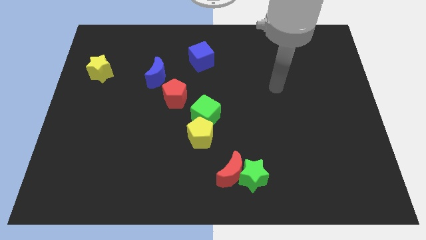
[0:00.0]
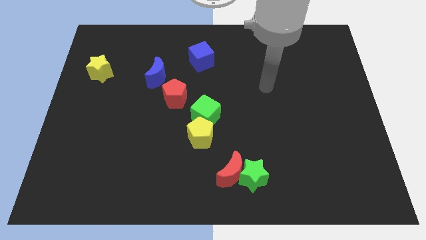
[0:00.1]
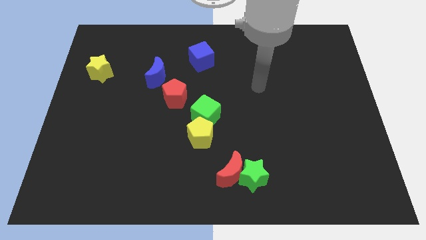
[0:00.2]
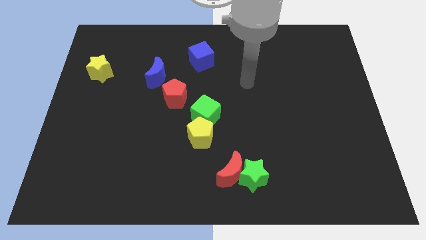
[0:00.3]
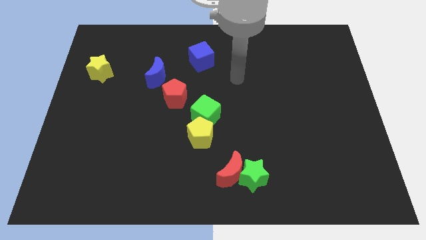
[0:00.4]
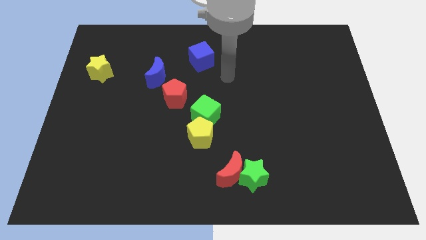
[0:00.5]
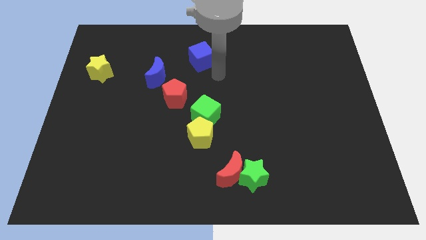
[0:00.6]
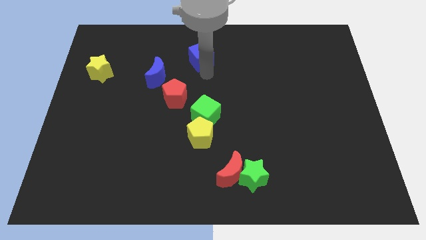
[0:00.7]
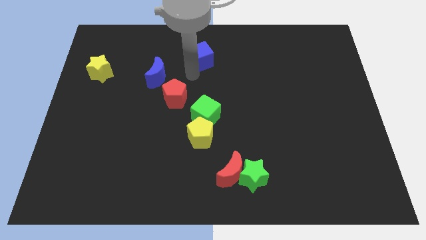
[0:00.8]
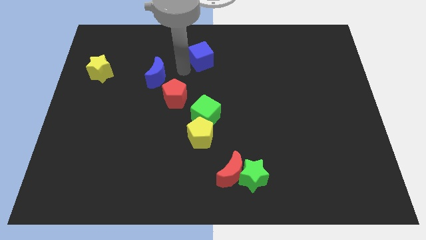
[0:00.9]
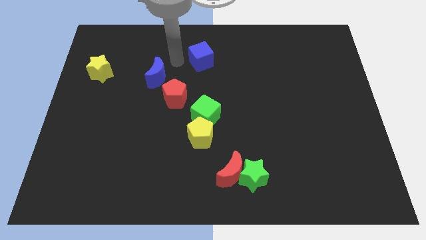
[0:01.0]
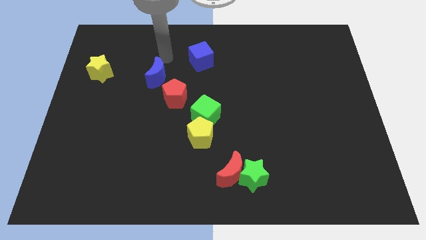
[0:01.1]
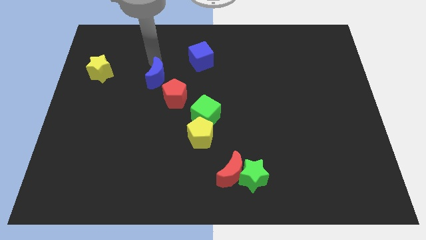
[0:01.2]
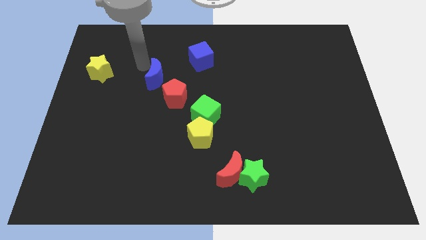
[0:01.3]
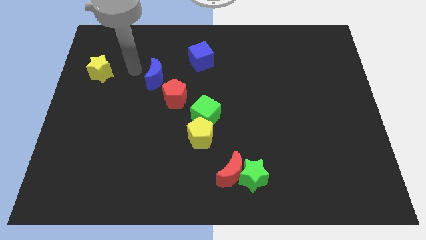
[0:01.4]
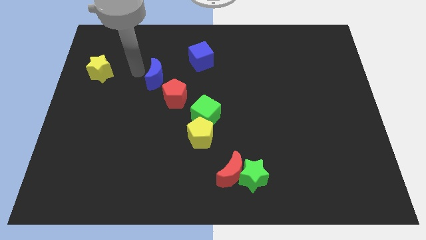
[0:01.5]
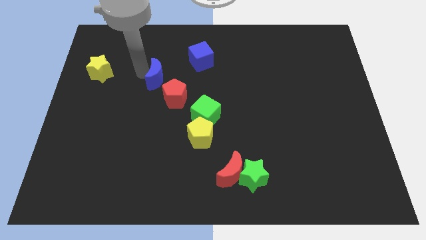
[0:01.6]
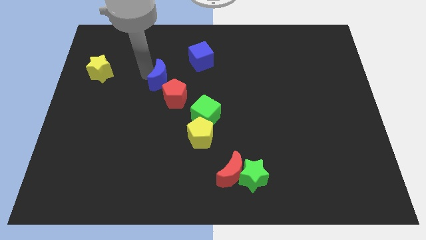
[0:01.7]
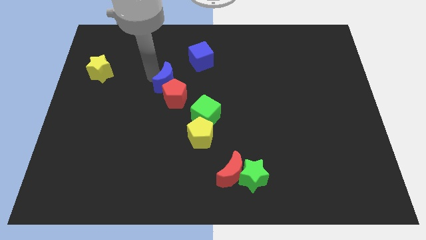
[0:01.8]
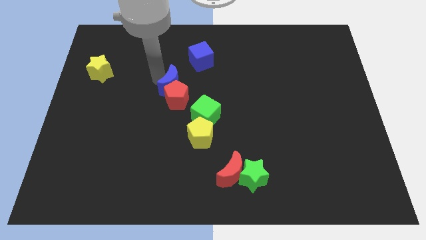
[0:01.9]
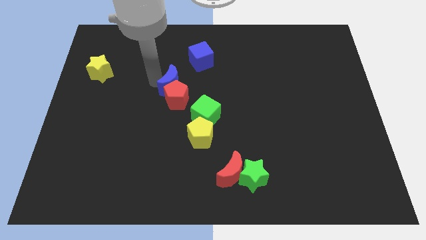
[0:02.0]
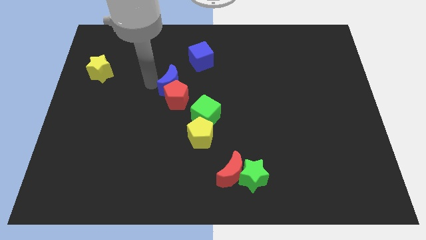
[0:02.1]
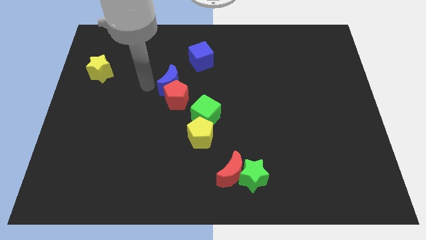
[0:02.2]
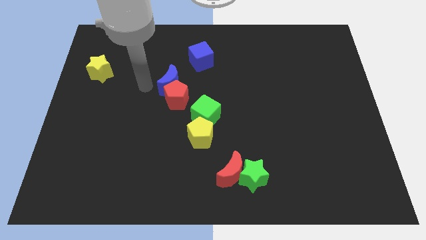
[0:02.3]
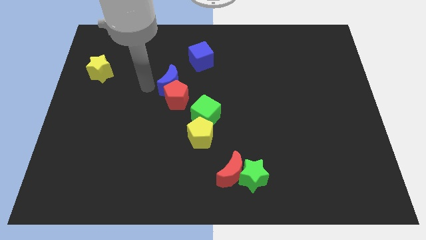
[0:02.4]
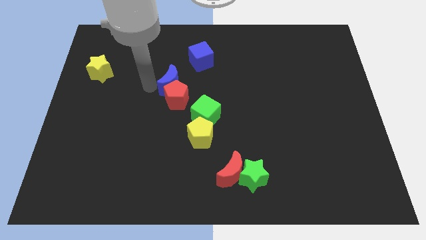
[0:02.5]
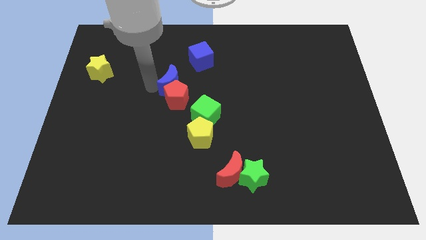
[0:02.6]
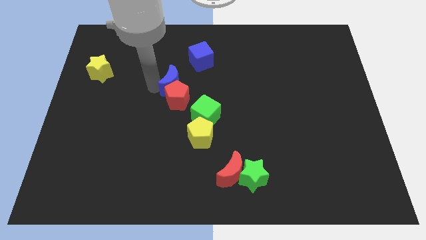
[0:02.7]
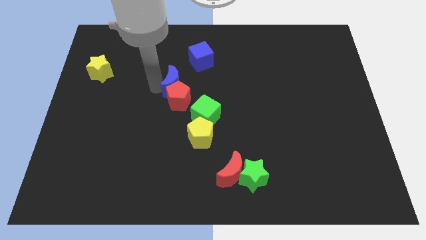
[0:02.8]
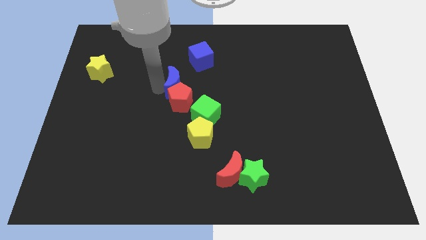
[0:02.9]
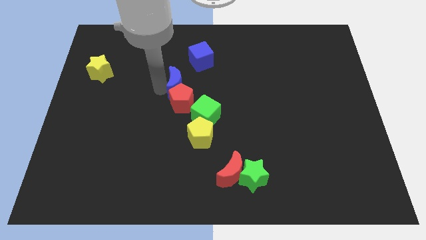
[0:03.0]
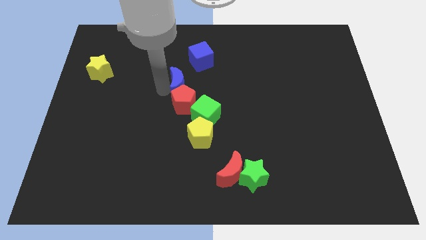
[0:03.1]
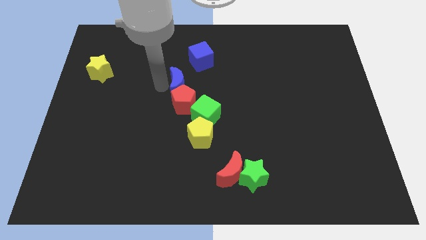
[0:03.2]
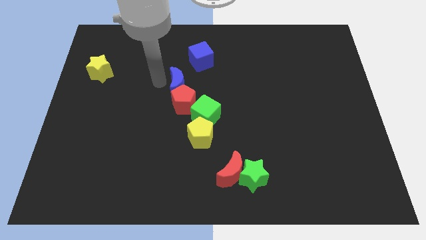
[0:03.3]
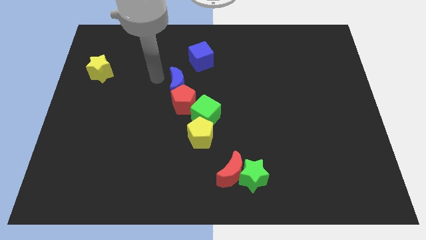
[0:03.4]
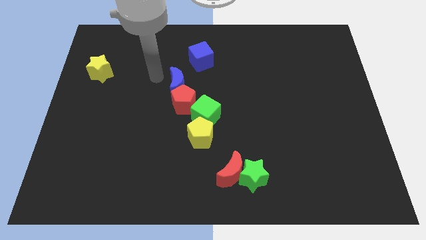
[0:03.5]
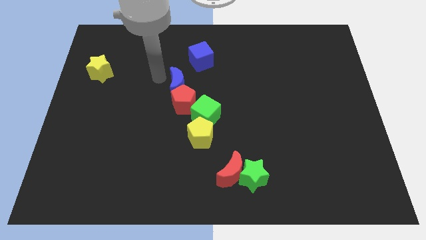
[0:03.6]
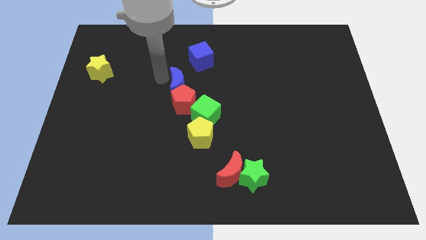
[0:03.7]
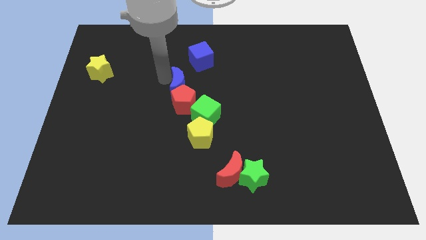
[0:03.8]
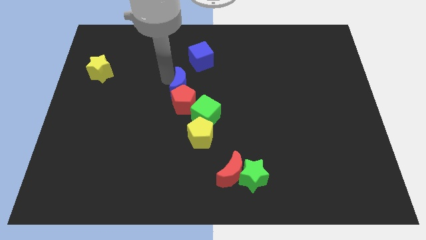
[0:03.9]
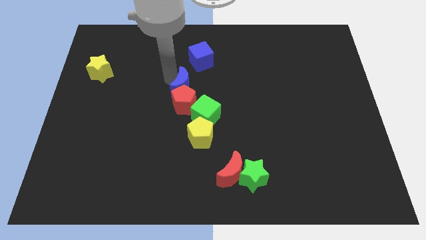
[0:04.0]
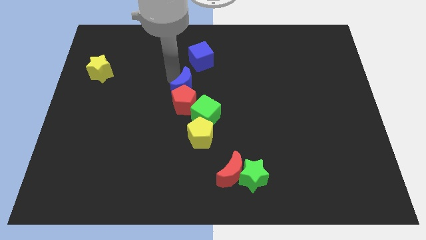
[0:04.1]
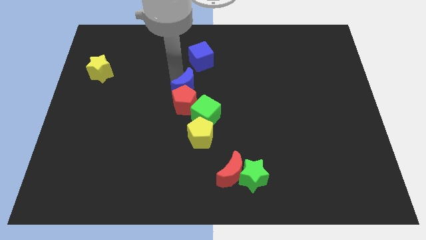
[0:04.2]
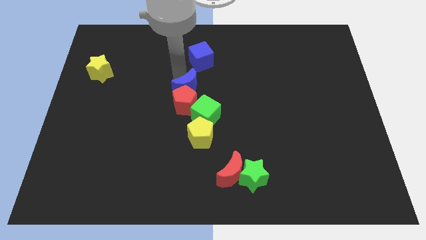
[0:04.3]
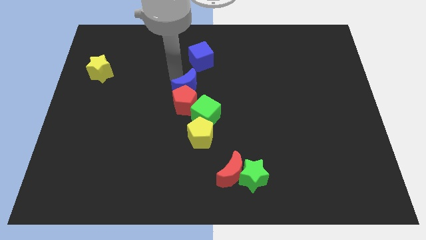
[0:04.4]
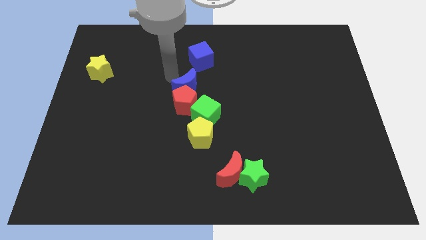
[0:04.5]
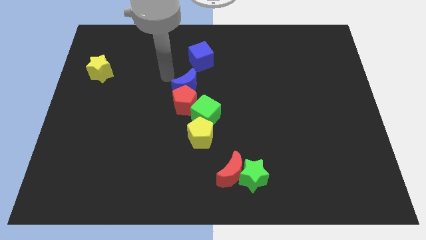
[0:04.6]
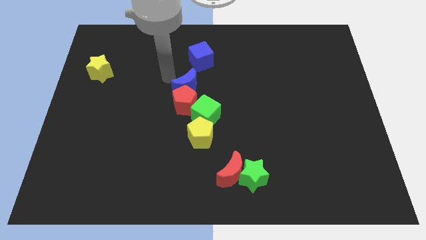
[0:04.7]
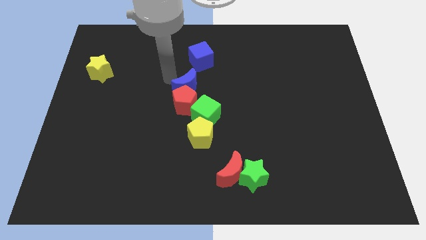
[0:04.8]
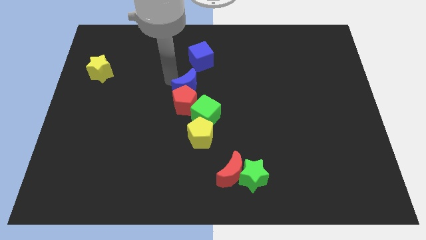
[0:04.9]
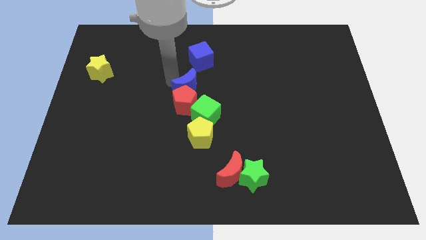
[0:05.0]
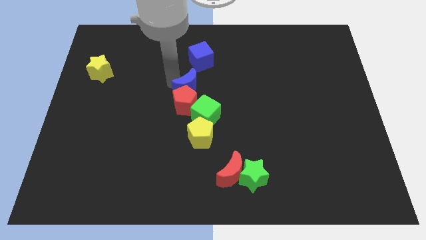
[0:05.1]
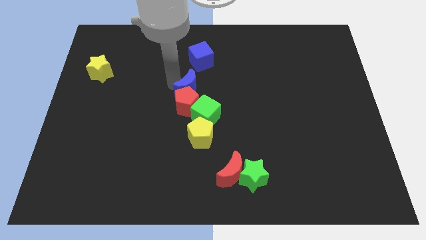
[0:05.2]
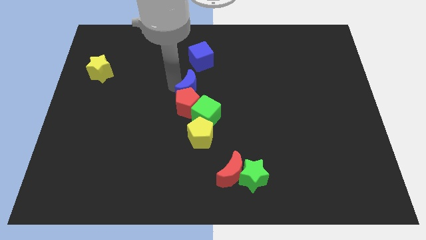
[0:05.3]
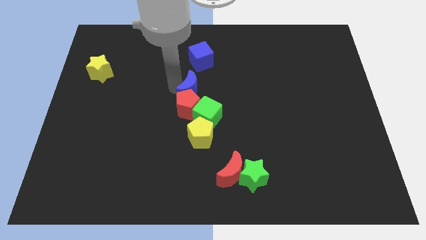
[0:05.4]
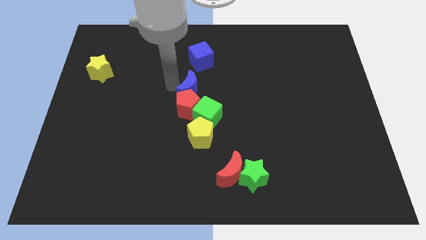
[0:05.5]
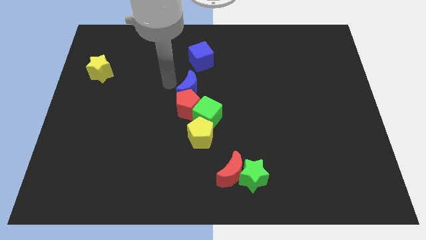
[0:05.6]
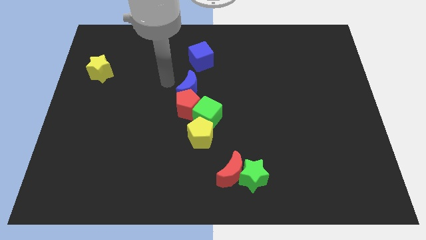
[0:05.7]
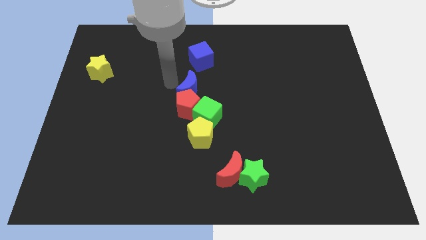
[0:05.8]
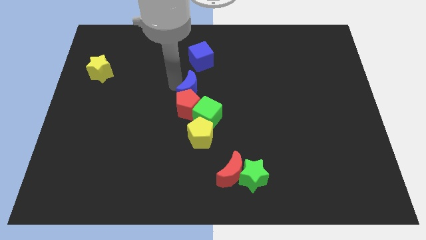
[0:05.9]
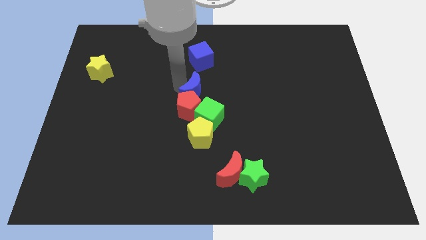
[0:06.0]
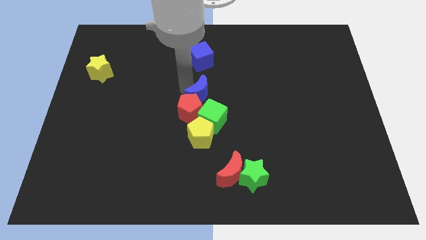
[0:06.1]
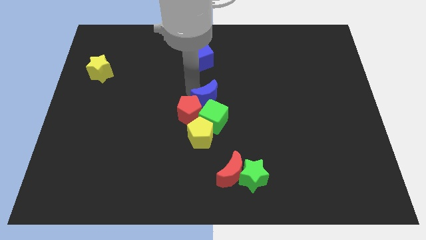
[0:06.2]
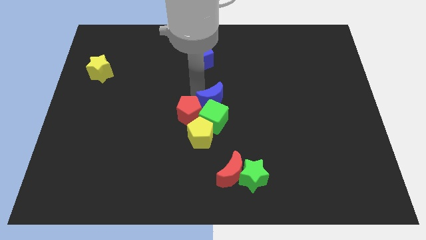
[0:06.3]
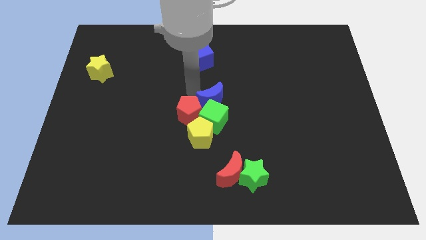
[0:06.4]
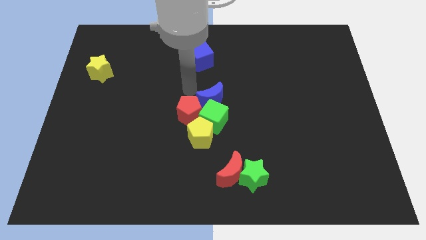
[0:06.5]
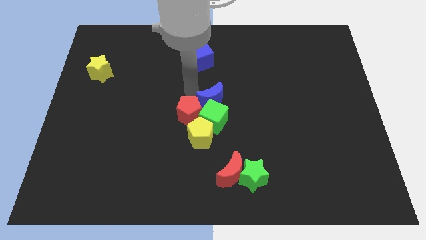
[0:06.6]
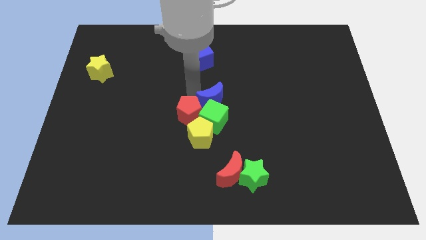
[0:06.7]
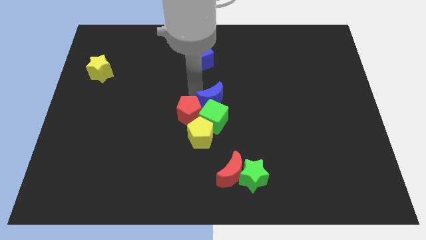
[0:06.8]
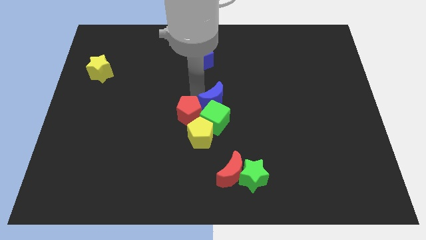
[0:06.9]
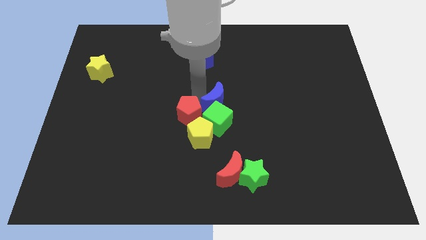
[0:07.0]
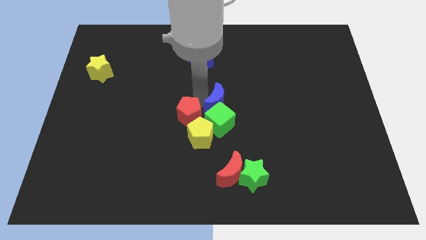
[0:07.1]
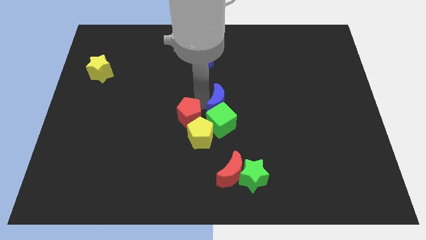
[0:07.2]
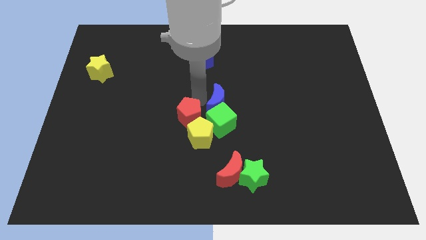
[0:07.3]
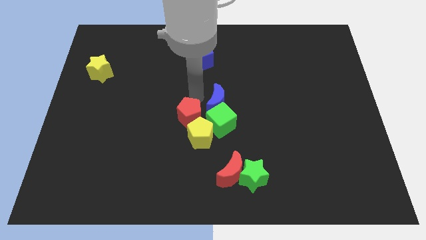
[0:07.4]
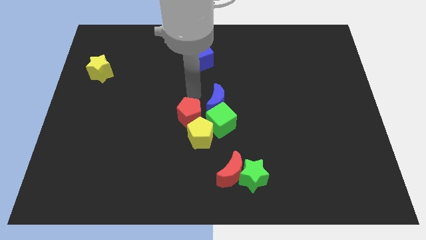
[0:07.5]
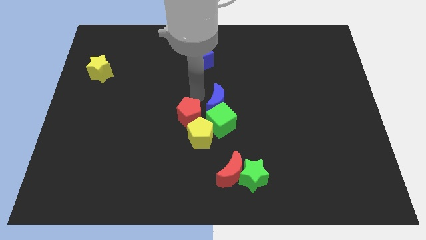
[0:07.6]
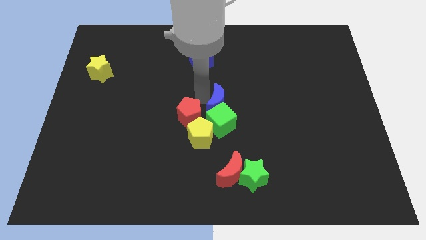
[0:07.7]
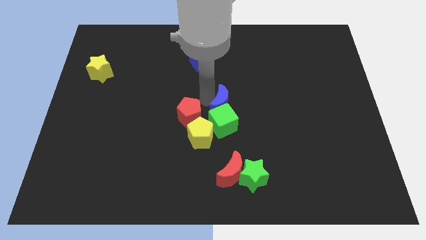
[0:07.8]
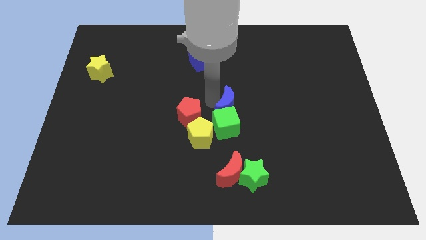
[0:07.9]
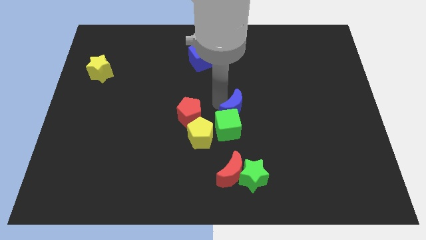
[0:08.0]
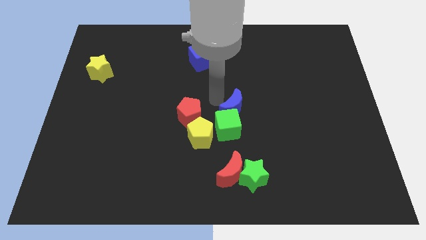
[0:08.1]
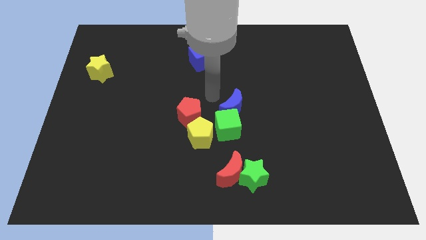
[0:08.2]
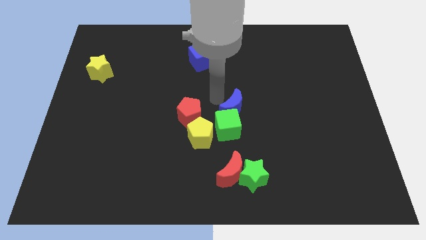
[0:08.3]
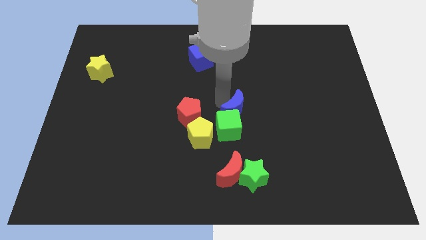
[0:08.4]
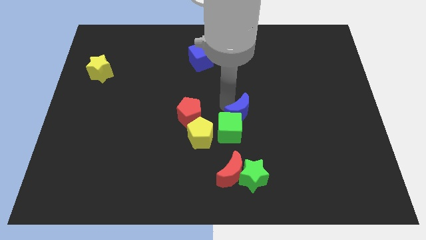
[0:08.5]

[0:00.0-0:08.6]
move the blue moon down and to the right
